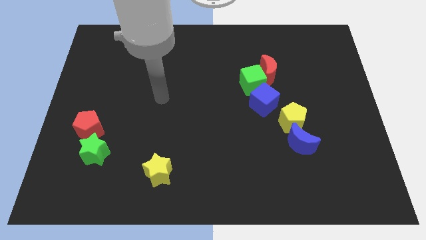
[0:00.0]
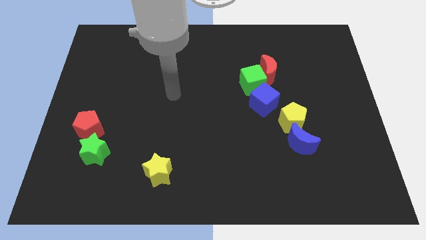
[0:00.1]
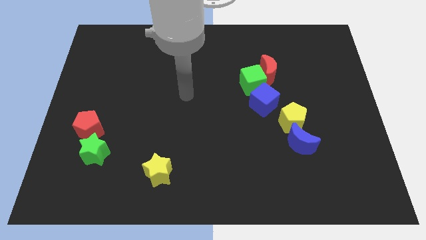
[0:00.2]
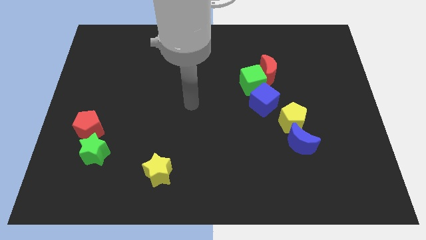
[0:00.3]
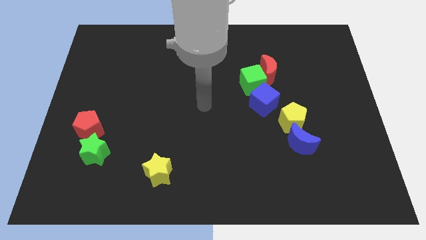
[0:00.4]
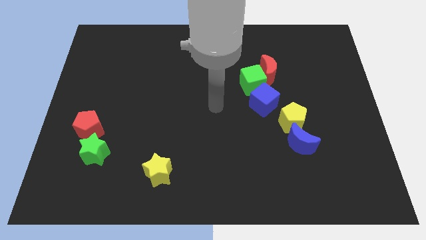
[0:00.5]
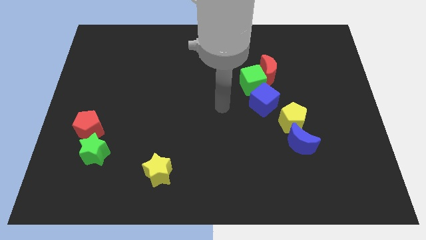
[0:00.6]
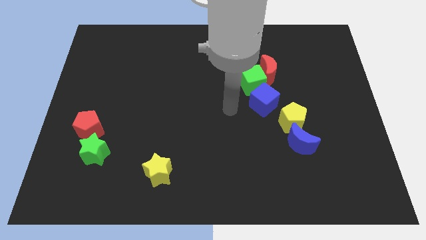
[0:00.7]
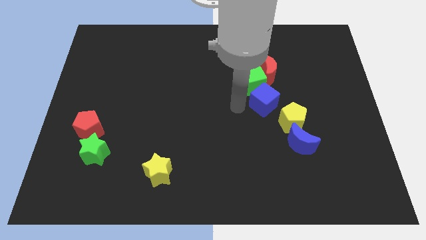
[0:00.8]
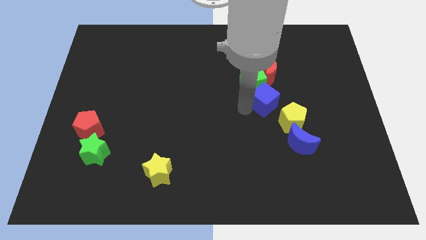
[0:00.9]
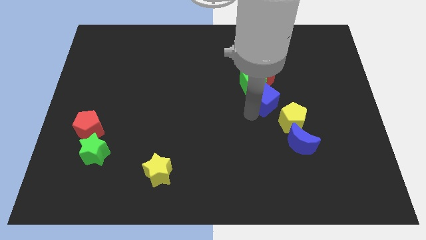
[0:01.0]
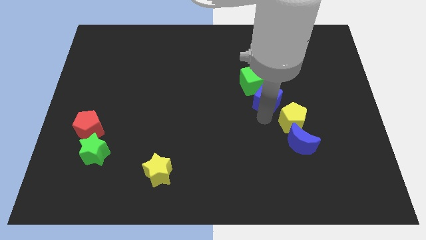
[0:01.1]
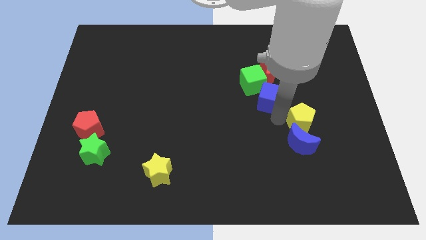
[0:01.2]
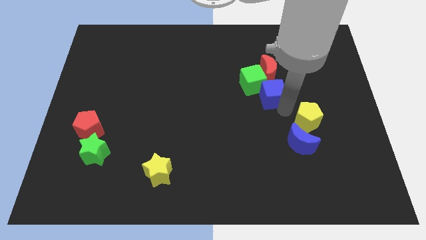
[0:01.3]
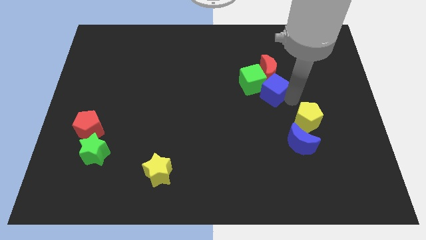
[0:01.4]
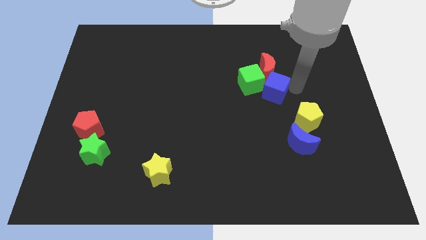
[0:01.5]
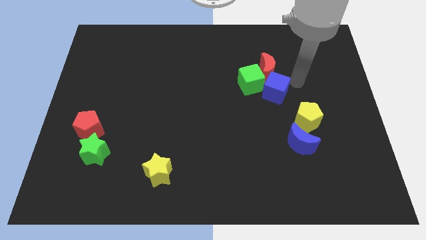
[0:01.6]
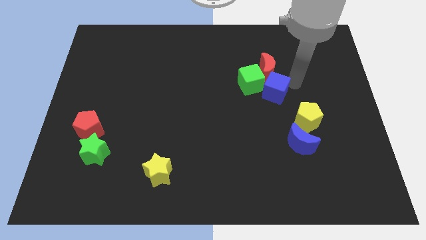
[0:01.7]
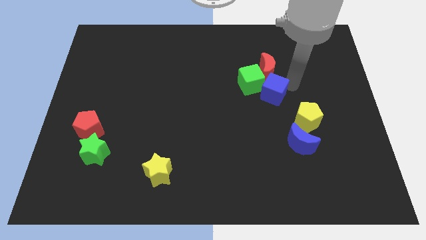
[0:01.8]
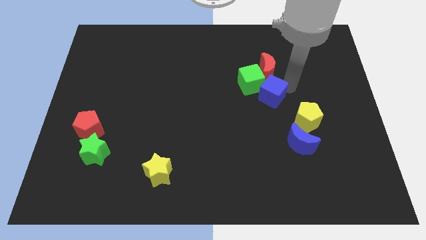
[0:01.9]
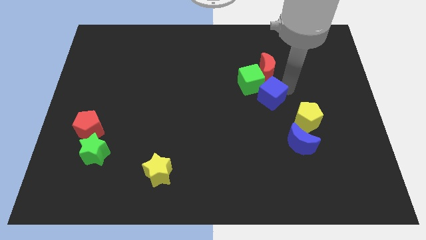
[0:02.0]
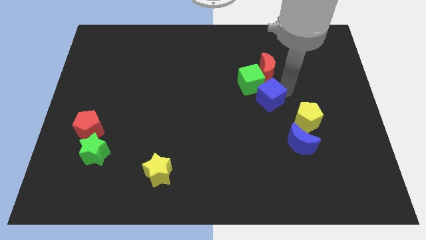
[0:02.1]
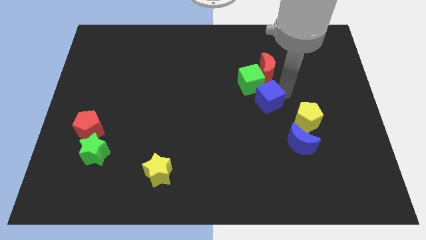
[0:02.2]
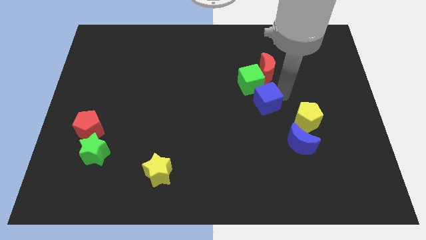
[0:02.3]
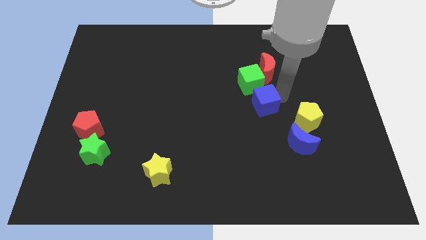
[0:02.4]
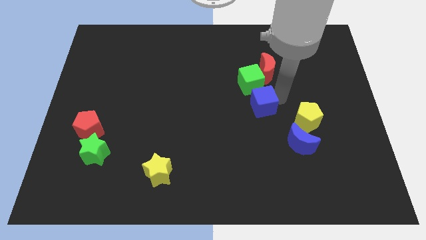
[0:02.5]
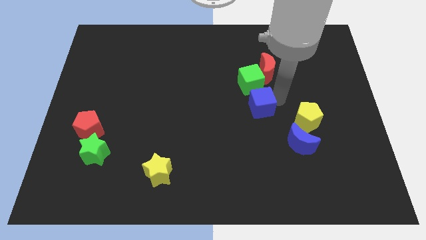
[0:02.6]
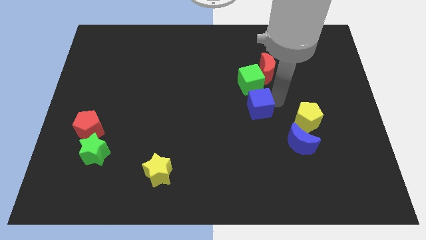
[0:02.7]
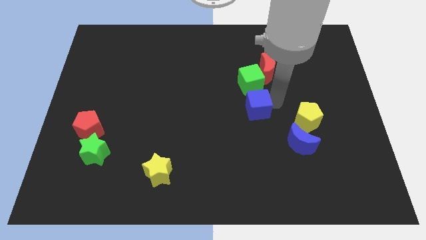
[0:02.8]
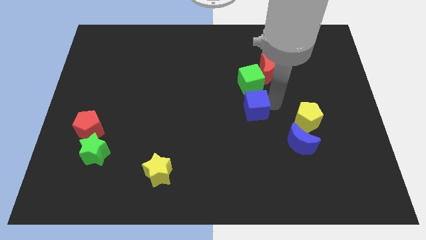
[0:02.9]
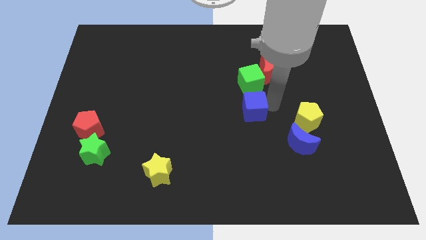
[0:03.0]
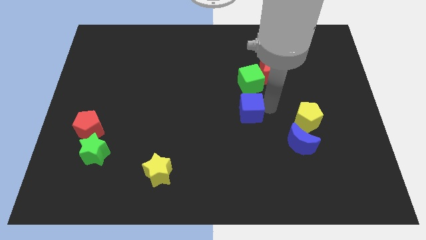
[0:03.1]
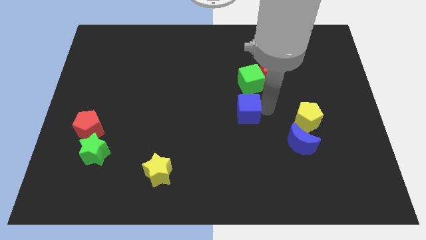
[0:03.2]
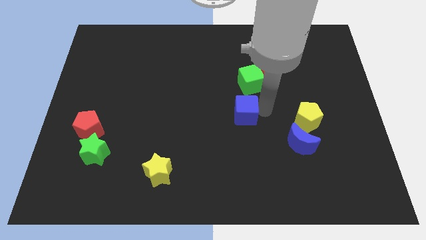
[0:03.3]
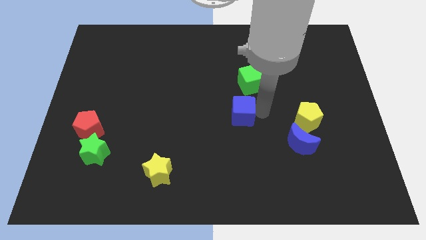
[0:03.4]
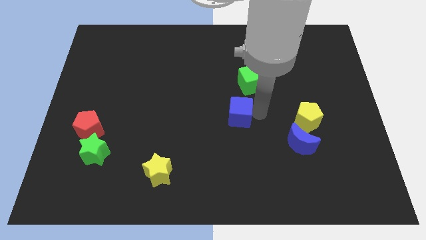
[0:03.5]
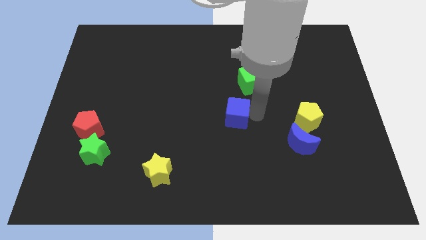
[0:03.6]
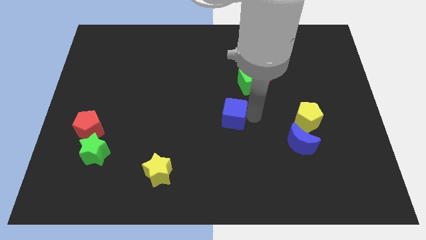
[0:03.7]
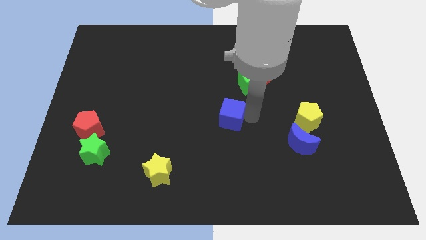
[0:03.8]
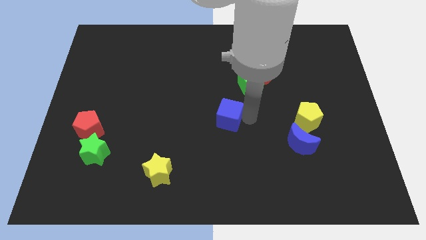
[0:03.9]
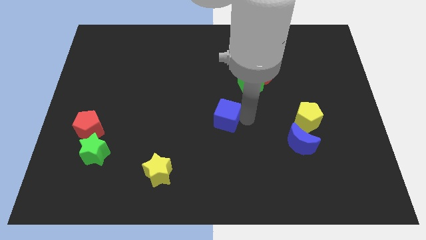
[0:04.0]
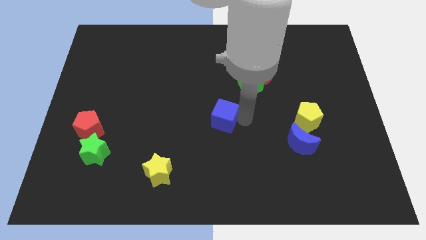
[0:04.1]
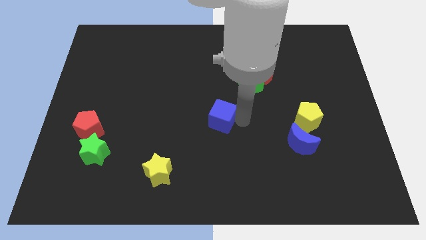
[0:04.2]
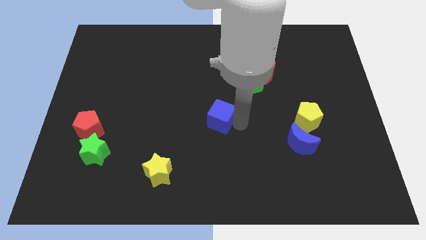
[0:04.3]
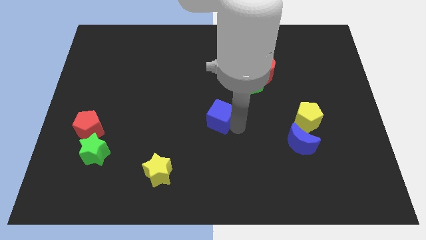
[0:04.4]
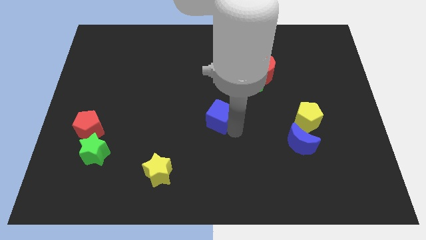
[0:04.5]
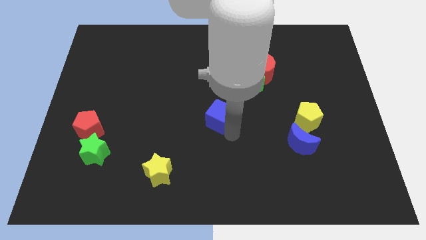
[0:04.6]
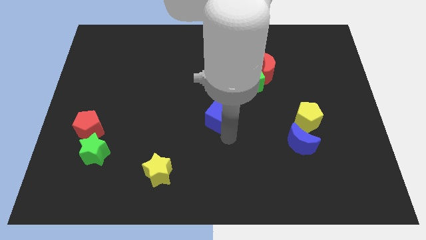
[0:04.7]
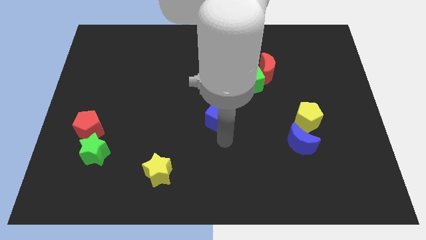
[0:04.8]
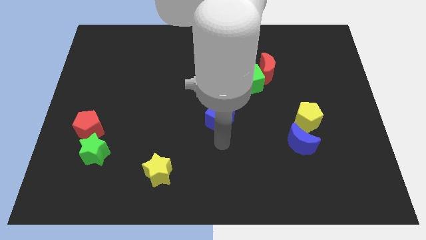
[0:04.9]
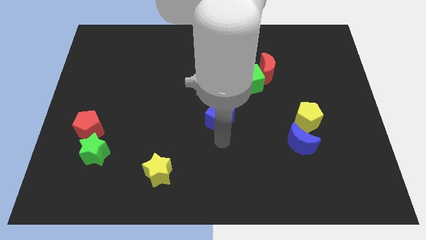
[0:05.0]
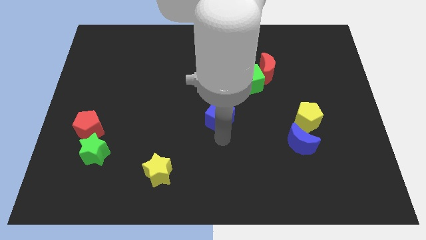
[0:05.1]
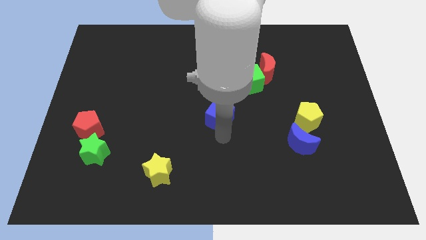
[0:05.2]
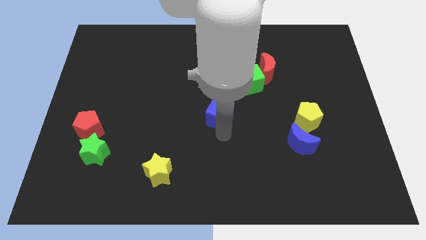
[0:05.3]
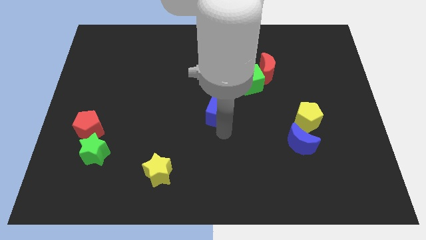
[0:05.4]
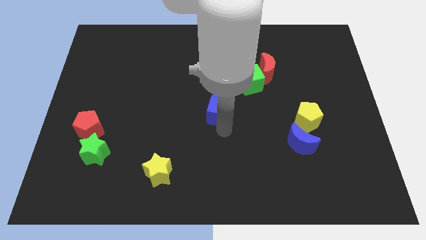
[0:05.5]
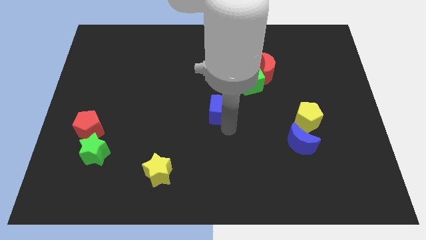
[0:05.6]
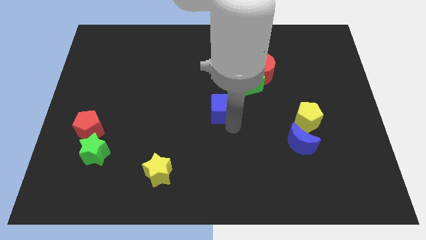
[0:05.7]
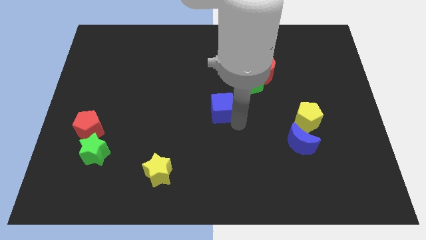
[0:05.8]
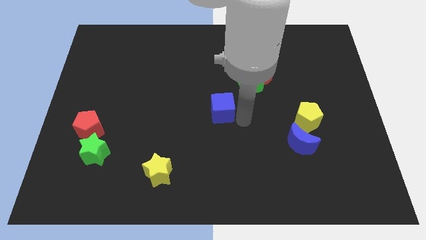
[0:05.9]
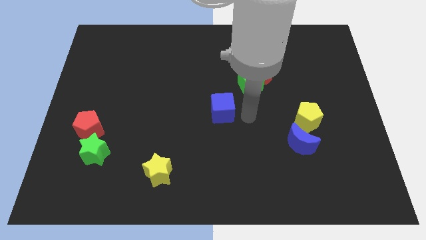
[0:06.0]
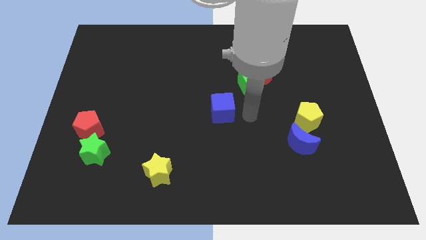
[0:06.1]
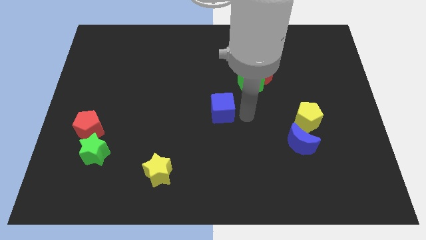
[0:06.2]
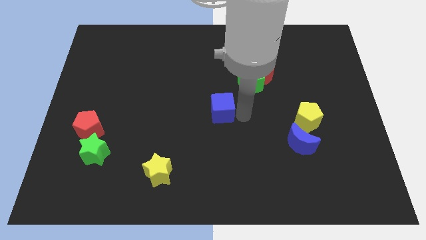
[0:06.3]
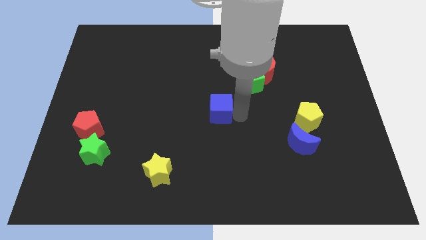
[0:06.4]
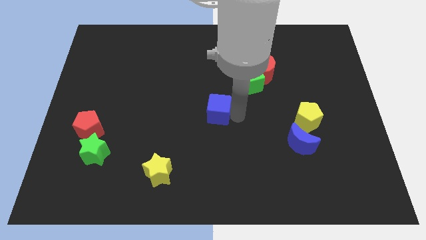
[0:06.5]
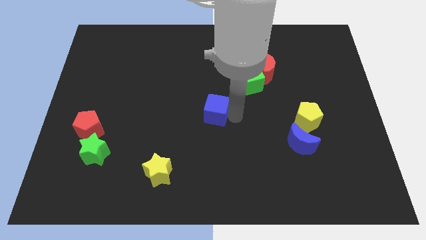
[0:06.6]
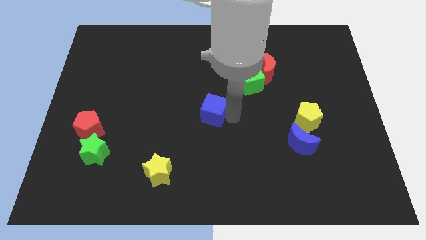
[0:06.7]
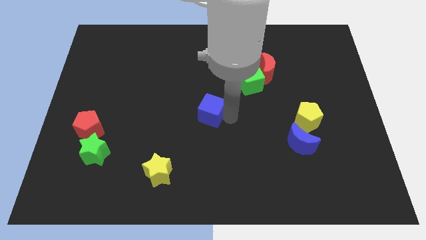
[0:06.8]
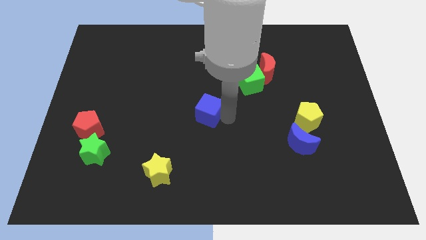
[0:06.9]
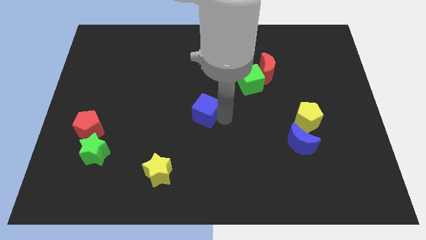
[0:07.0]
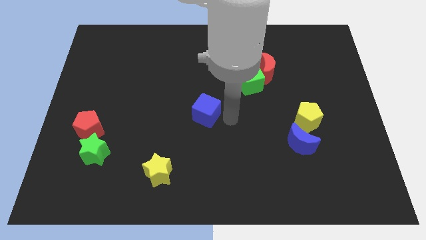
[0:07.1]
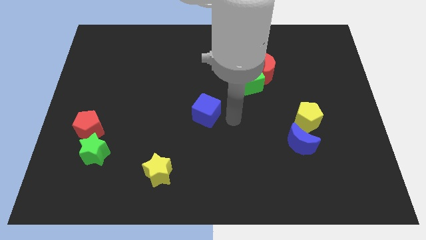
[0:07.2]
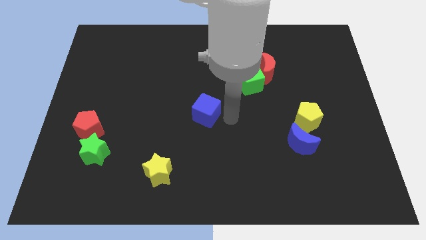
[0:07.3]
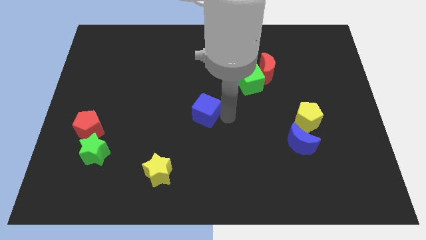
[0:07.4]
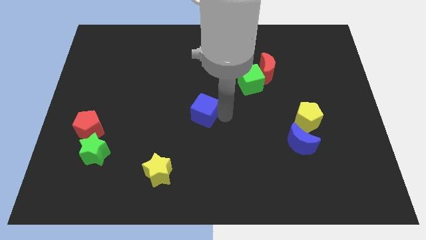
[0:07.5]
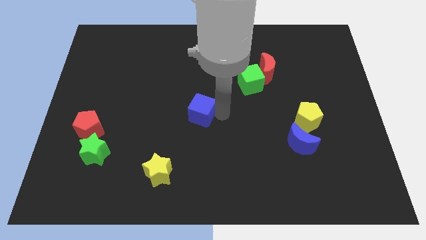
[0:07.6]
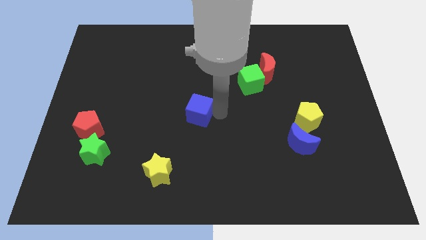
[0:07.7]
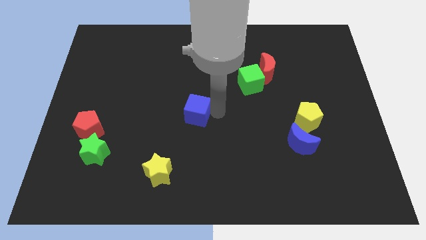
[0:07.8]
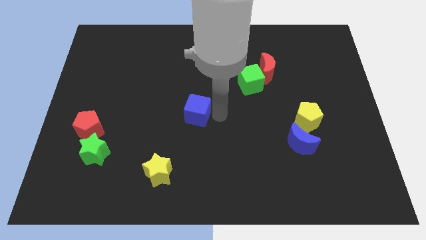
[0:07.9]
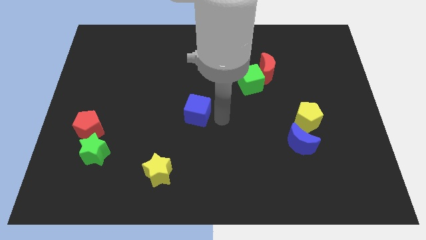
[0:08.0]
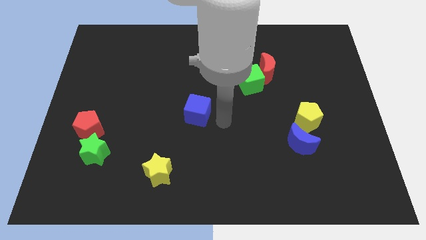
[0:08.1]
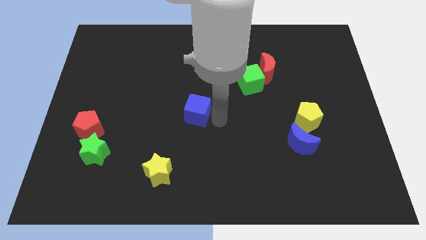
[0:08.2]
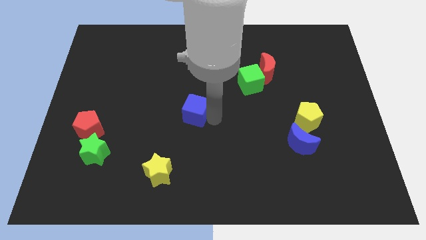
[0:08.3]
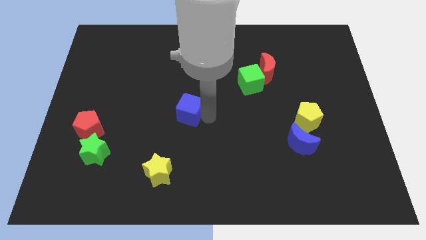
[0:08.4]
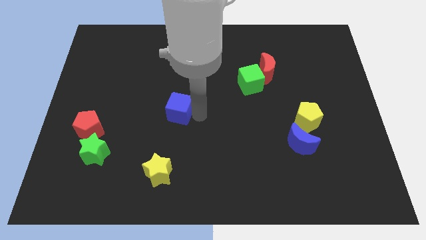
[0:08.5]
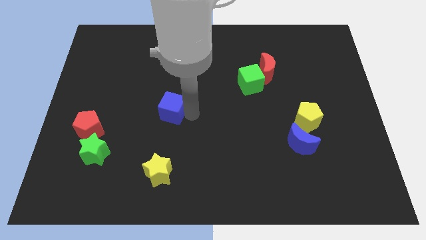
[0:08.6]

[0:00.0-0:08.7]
push the blue cube left

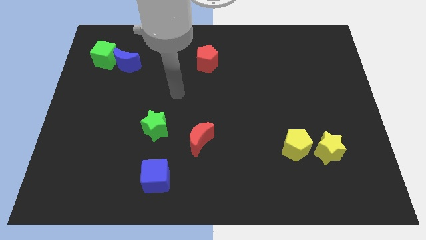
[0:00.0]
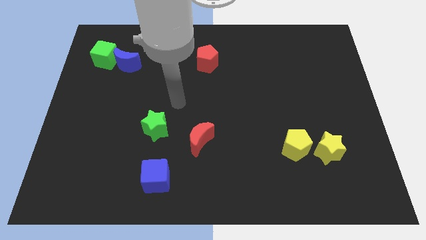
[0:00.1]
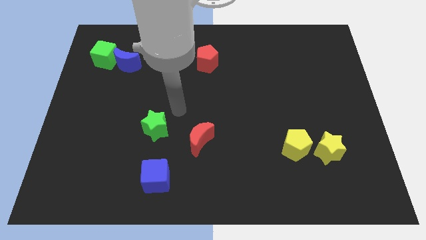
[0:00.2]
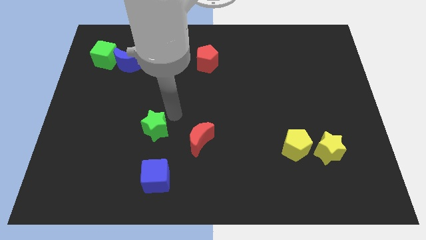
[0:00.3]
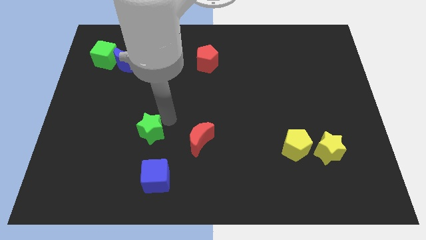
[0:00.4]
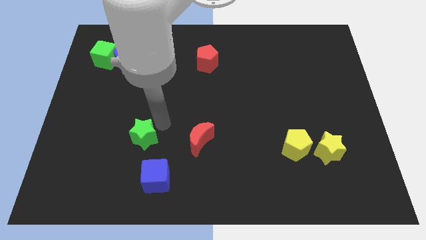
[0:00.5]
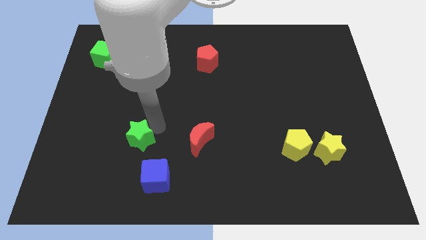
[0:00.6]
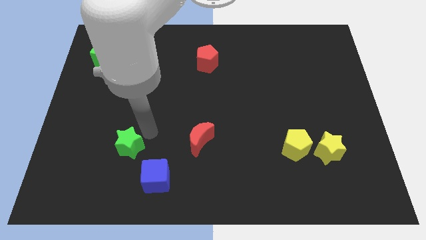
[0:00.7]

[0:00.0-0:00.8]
slightly push the green star down and then to the left
